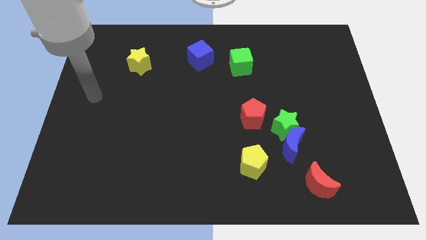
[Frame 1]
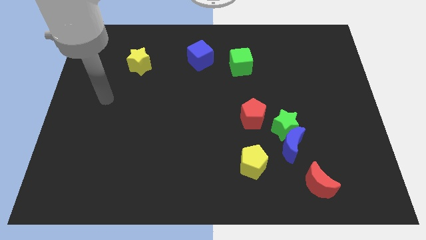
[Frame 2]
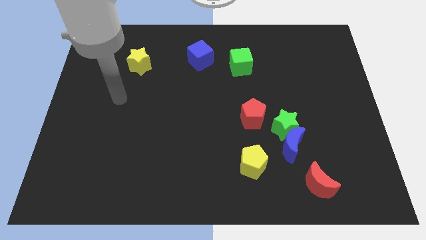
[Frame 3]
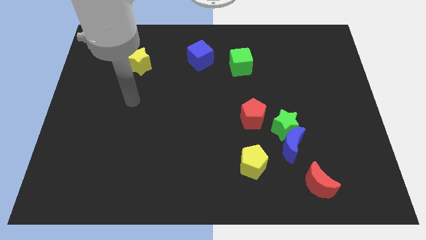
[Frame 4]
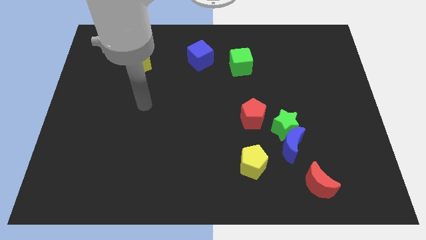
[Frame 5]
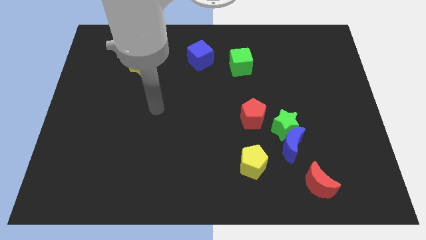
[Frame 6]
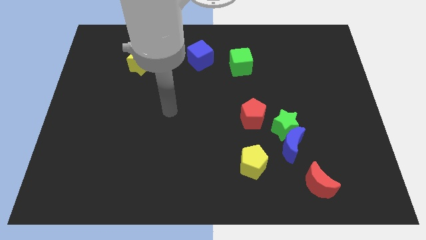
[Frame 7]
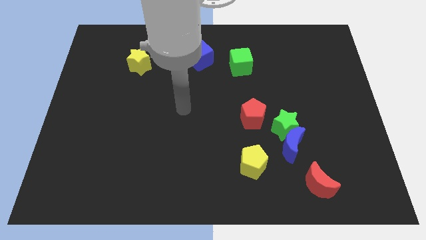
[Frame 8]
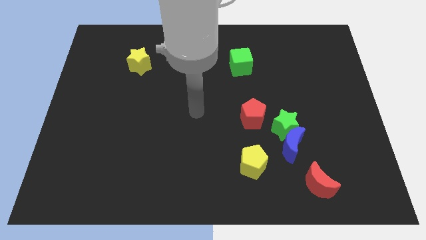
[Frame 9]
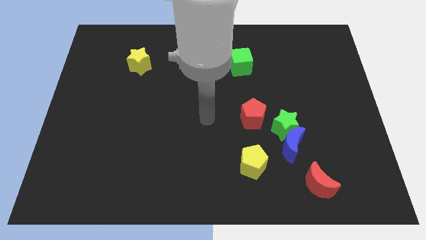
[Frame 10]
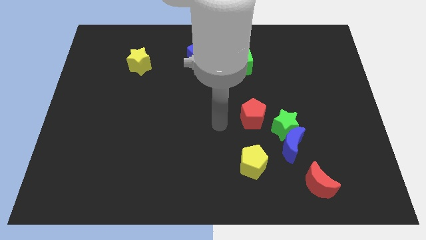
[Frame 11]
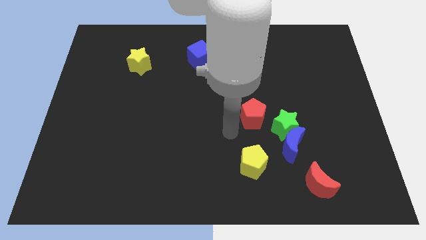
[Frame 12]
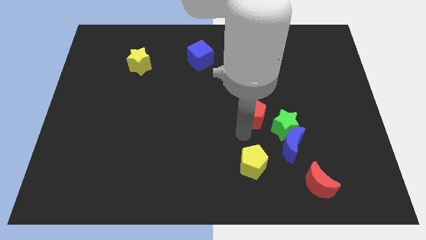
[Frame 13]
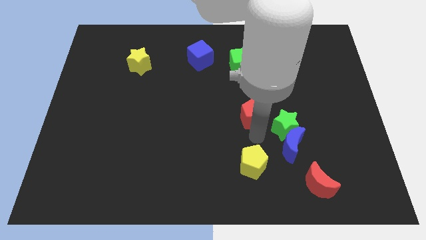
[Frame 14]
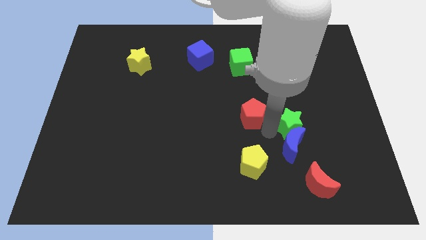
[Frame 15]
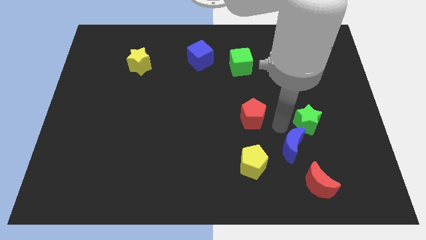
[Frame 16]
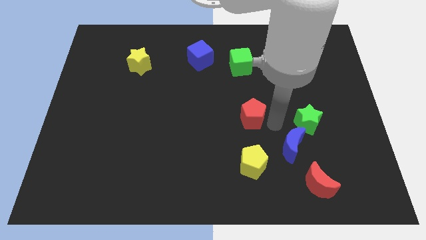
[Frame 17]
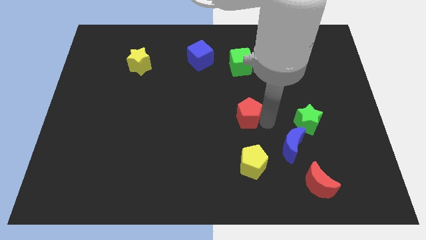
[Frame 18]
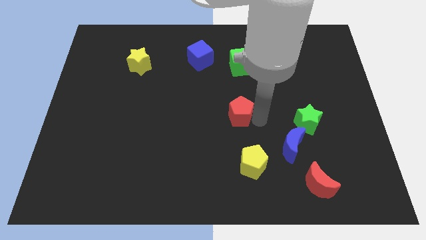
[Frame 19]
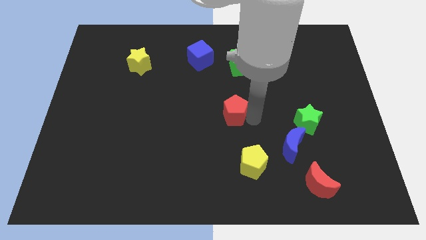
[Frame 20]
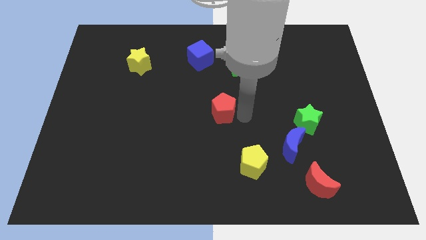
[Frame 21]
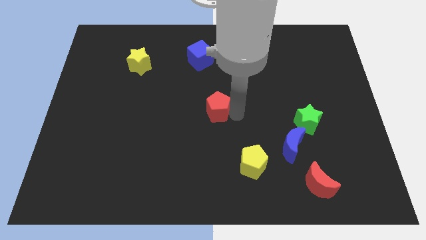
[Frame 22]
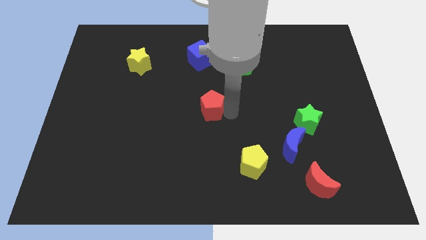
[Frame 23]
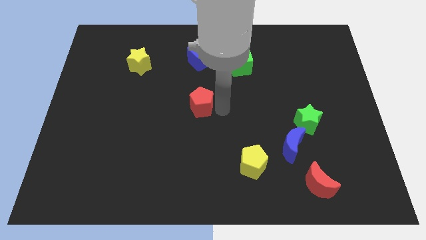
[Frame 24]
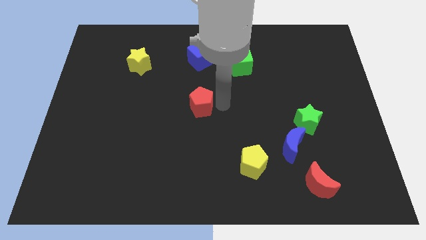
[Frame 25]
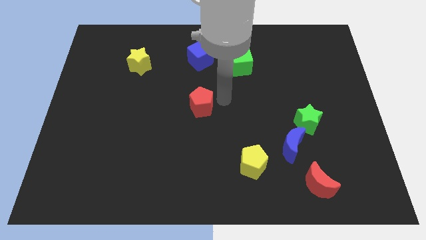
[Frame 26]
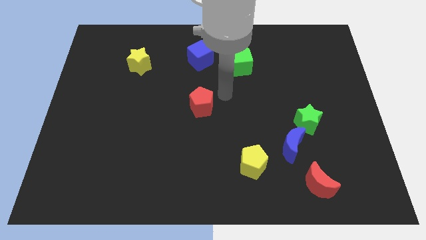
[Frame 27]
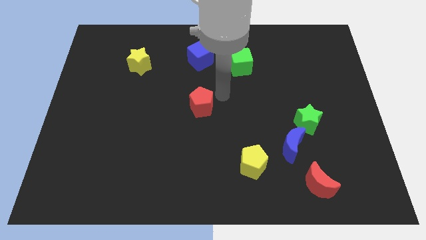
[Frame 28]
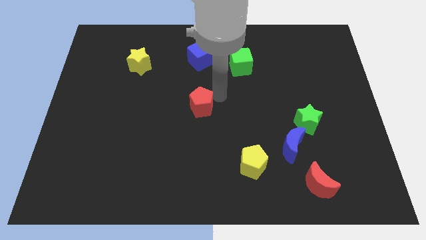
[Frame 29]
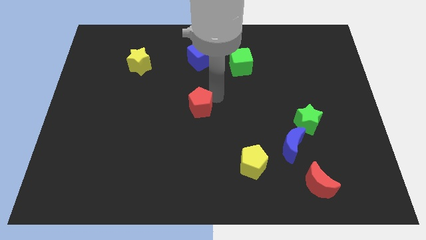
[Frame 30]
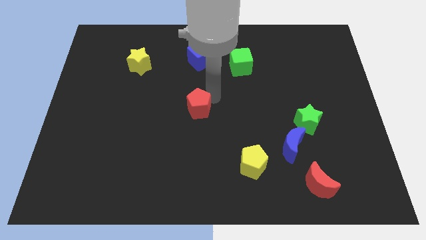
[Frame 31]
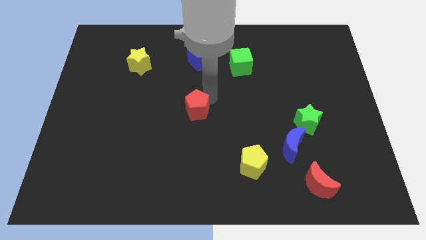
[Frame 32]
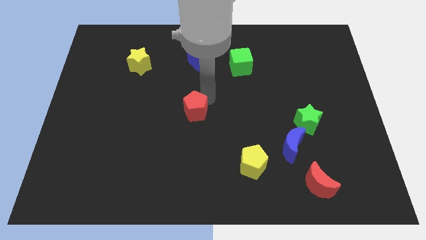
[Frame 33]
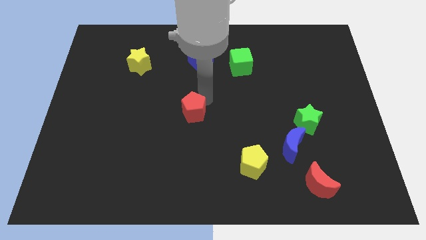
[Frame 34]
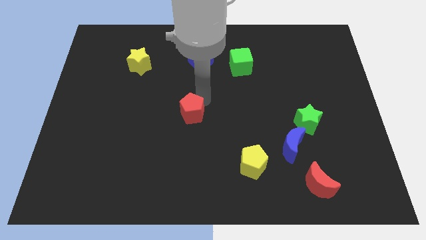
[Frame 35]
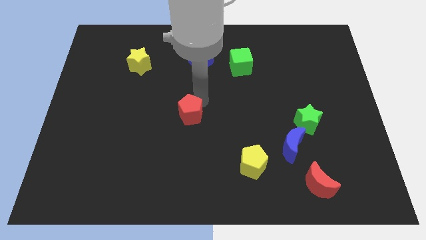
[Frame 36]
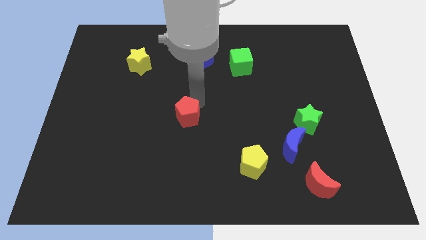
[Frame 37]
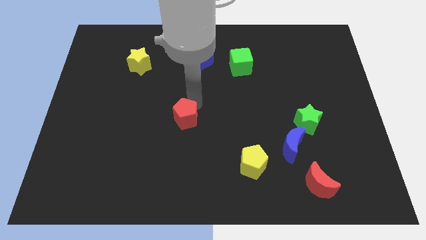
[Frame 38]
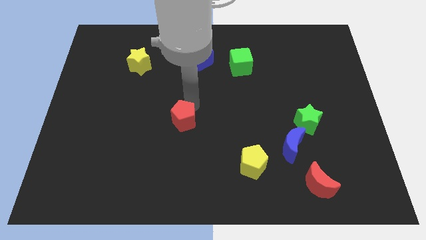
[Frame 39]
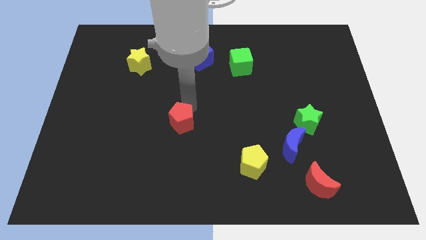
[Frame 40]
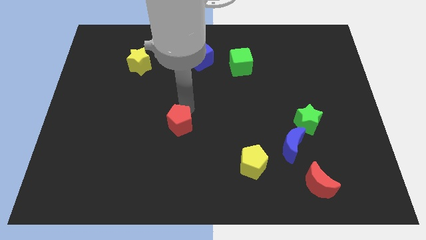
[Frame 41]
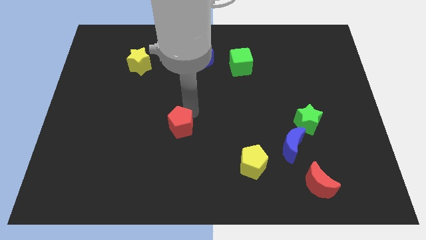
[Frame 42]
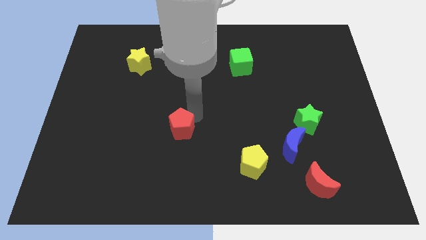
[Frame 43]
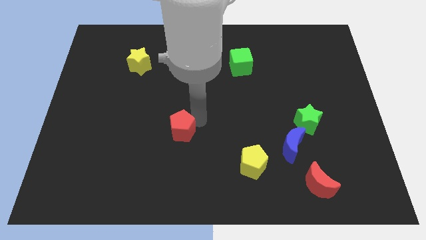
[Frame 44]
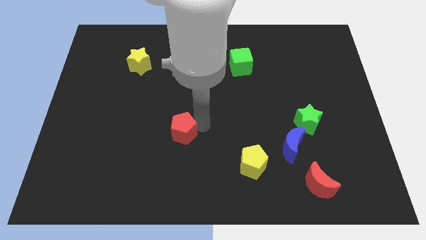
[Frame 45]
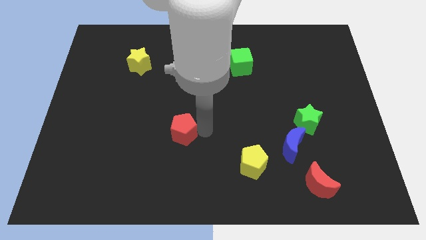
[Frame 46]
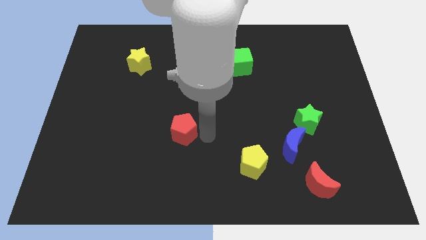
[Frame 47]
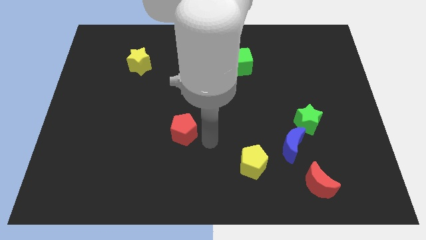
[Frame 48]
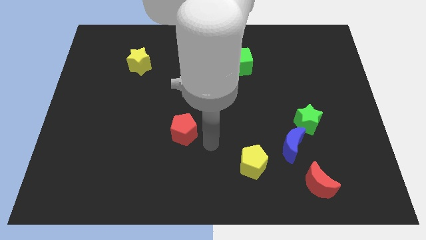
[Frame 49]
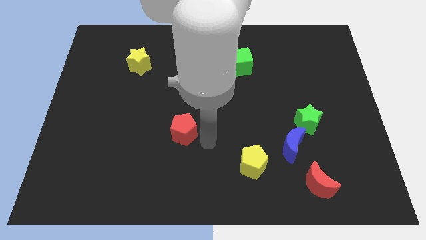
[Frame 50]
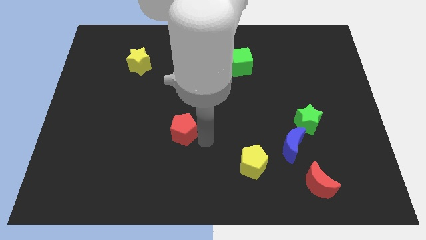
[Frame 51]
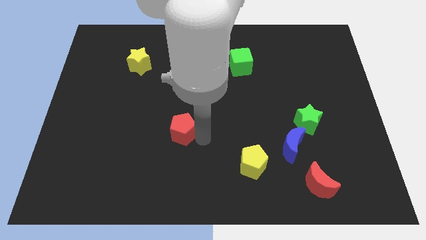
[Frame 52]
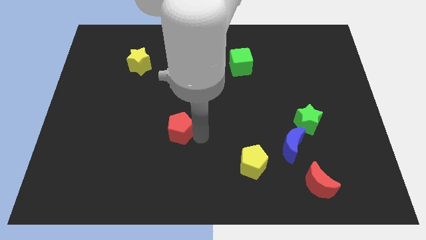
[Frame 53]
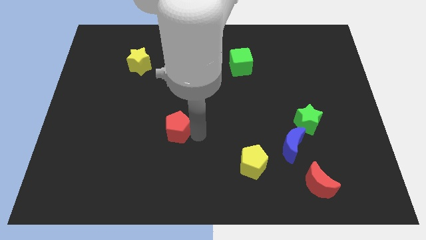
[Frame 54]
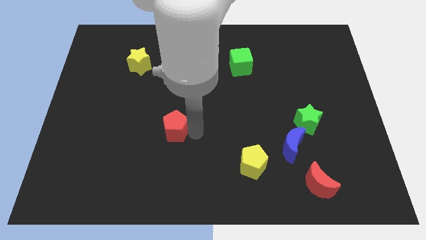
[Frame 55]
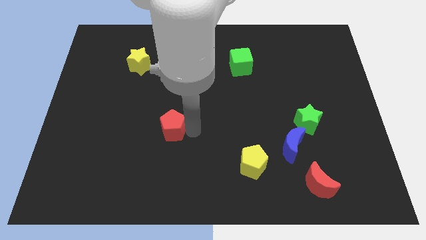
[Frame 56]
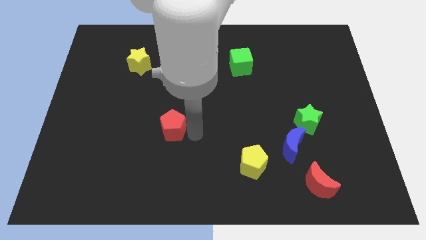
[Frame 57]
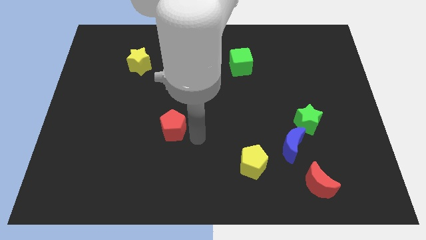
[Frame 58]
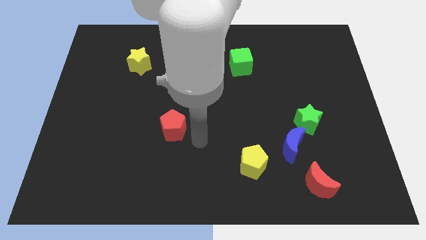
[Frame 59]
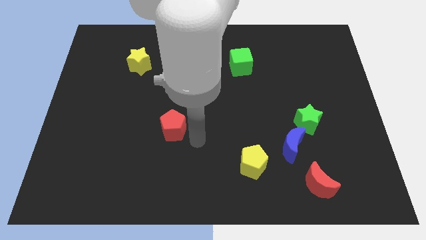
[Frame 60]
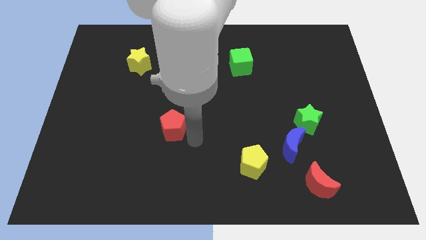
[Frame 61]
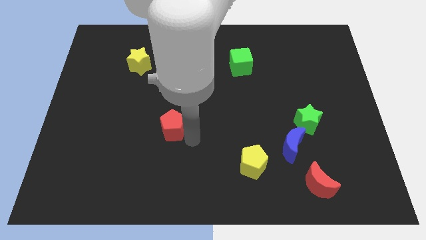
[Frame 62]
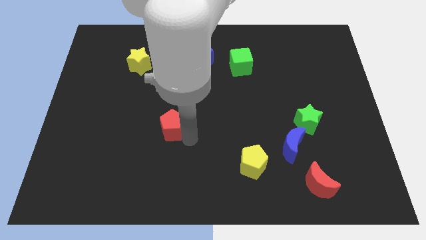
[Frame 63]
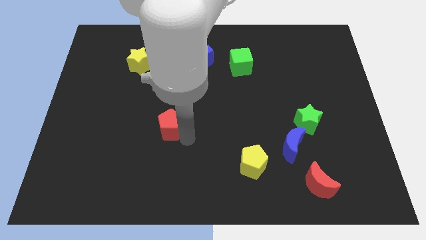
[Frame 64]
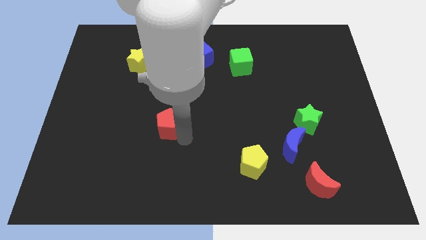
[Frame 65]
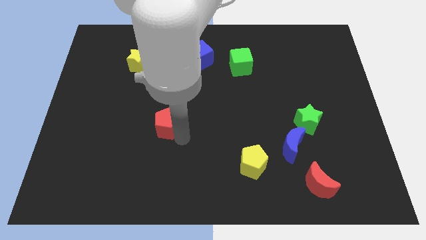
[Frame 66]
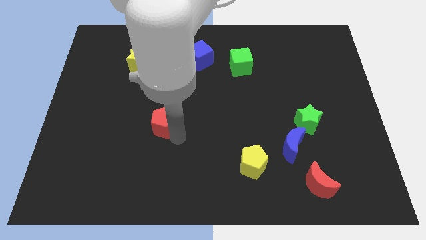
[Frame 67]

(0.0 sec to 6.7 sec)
move the red pentagon left

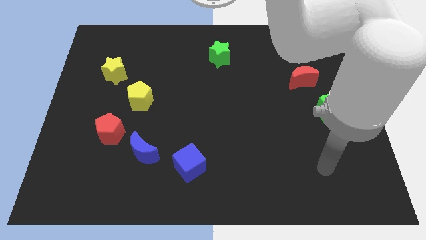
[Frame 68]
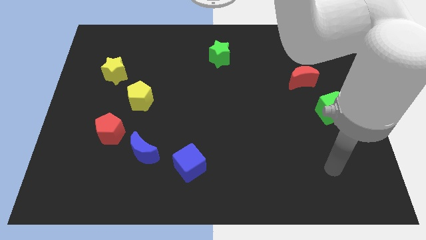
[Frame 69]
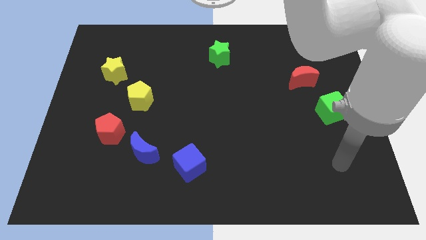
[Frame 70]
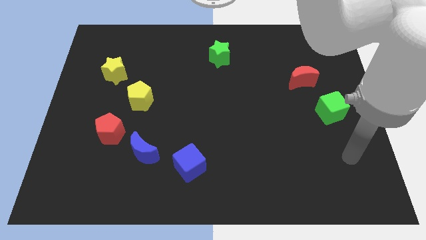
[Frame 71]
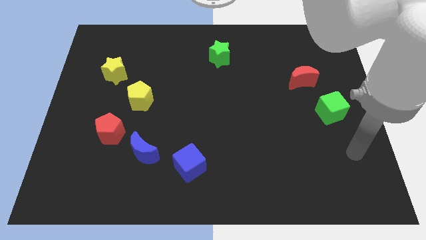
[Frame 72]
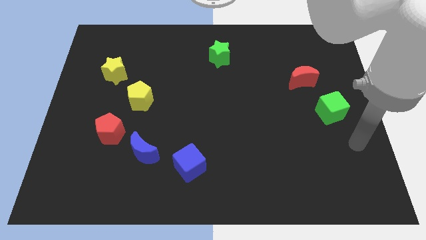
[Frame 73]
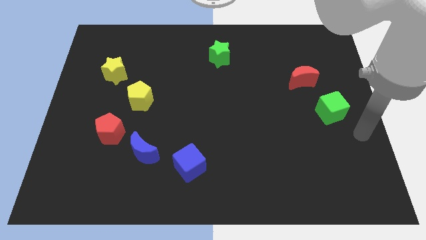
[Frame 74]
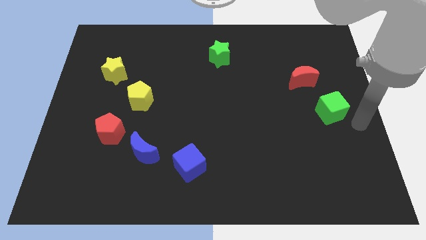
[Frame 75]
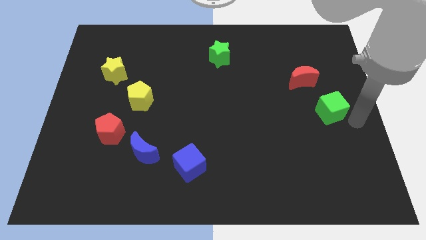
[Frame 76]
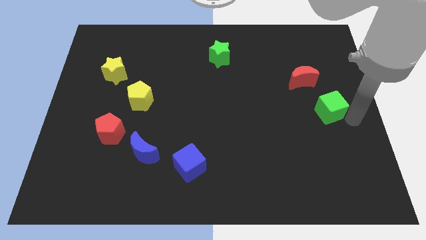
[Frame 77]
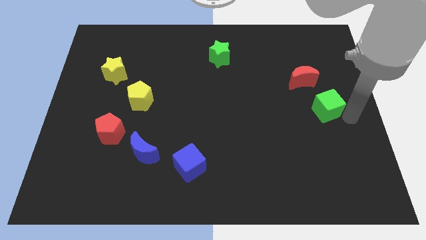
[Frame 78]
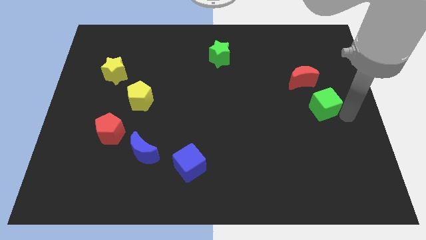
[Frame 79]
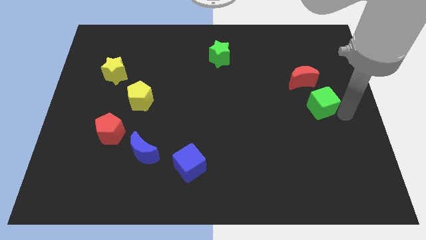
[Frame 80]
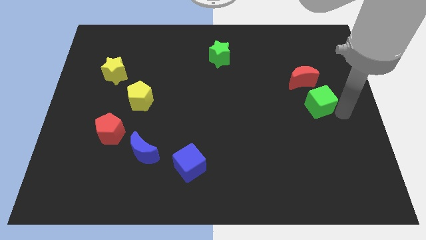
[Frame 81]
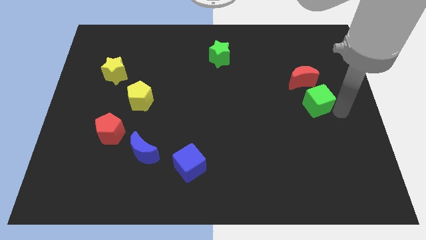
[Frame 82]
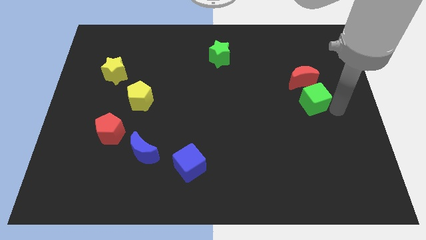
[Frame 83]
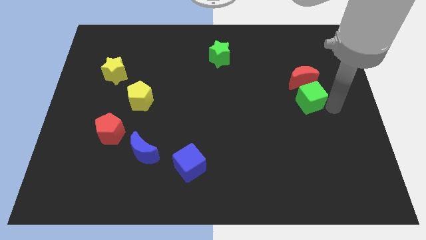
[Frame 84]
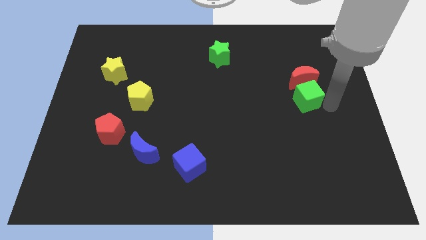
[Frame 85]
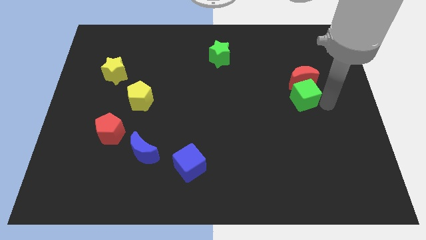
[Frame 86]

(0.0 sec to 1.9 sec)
move the green cube a bit diagonally upwards and left
